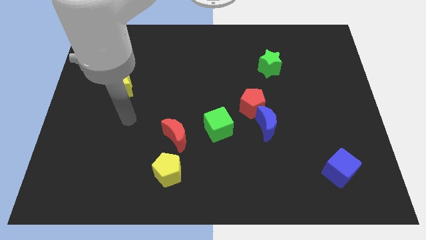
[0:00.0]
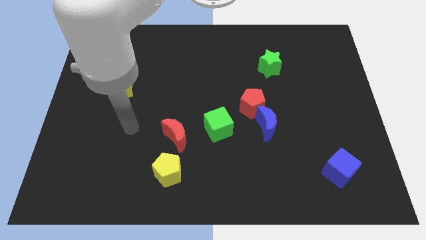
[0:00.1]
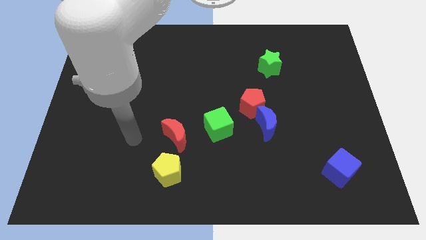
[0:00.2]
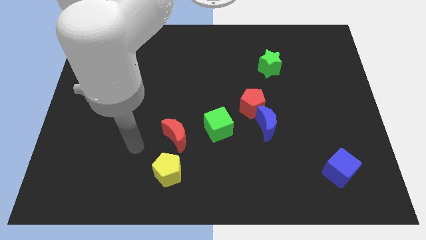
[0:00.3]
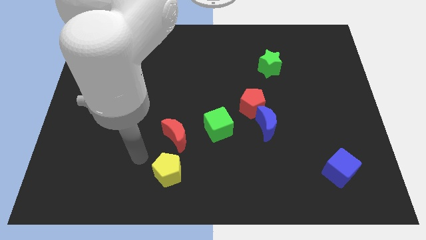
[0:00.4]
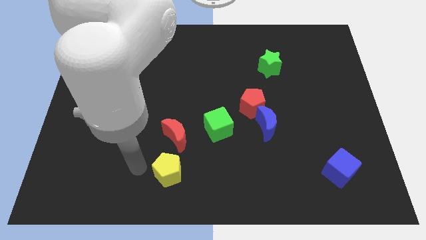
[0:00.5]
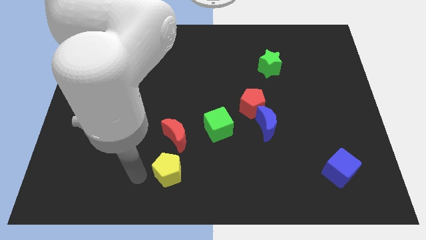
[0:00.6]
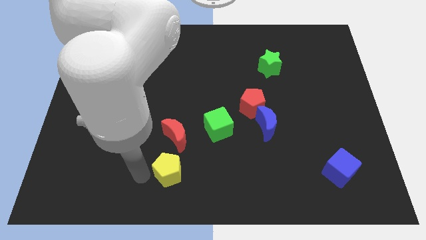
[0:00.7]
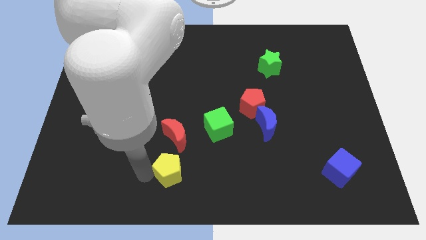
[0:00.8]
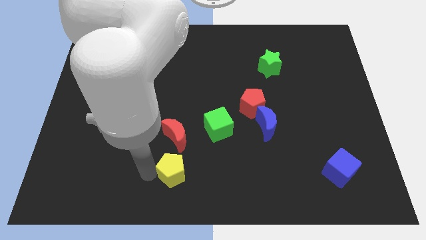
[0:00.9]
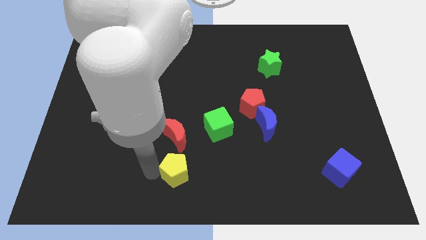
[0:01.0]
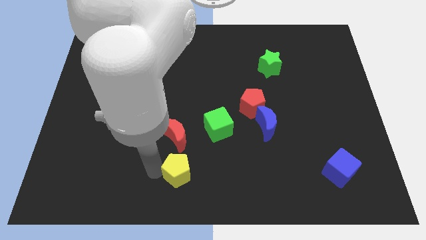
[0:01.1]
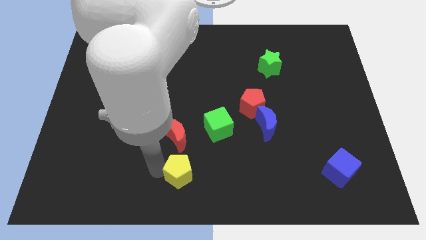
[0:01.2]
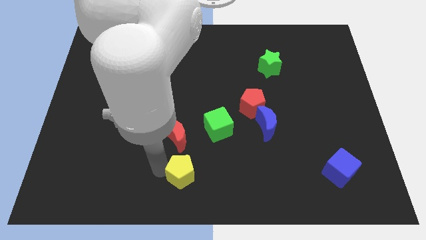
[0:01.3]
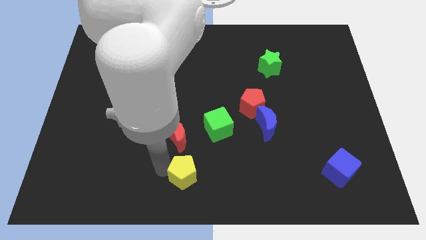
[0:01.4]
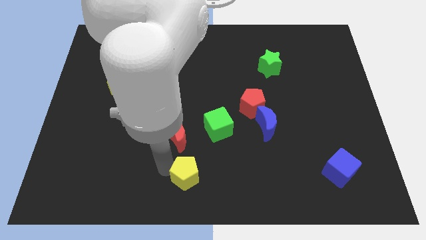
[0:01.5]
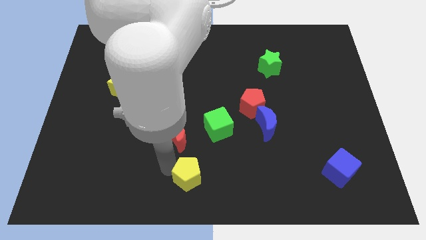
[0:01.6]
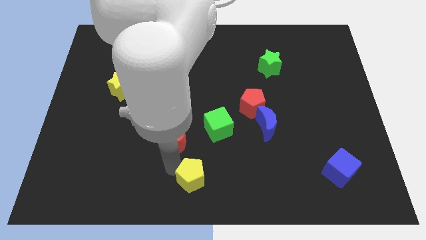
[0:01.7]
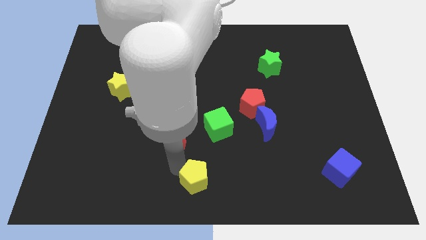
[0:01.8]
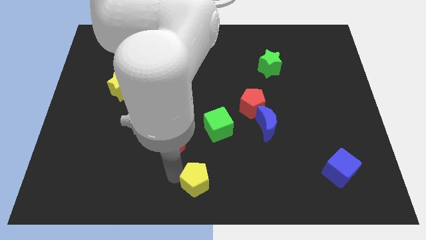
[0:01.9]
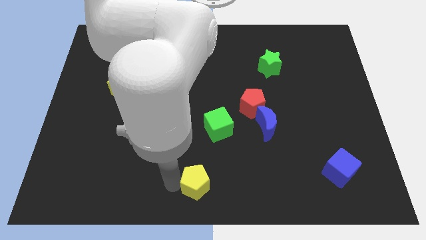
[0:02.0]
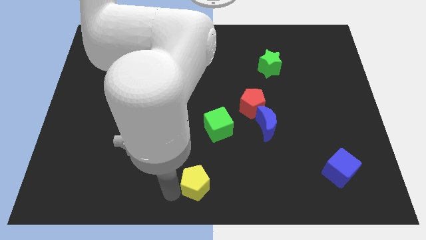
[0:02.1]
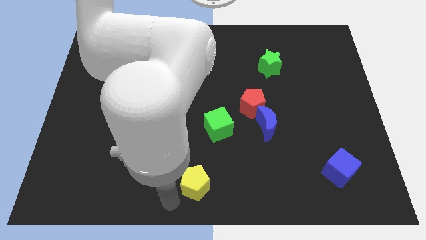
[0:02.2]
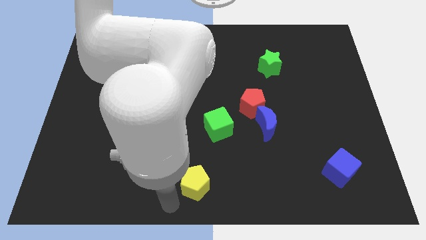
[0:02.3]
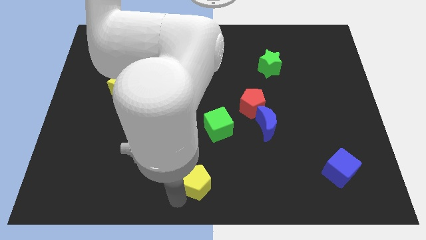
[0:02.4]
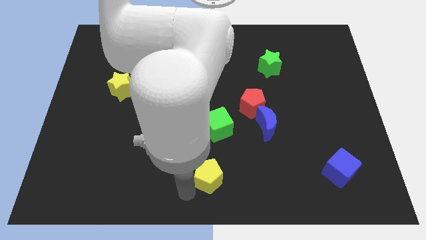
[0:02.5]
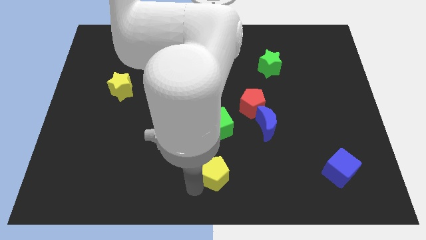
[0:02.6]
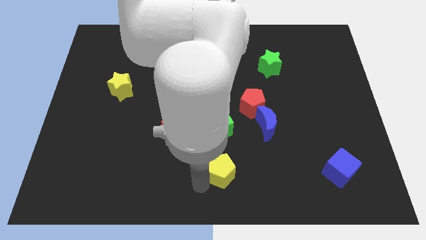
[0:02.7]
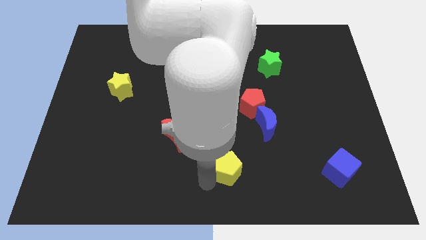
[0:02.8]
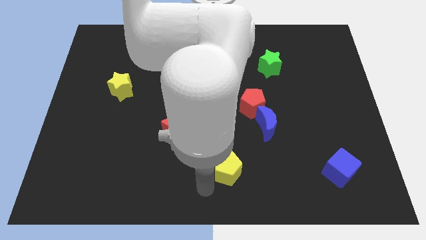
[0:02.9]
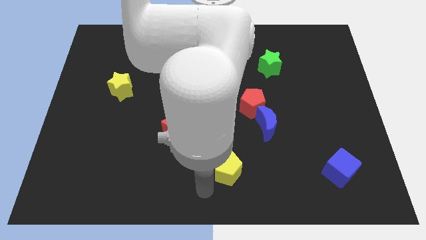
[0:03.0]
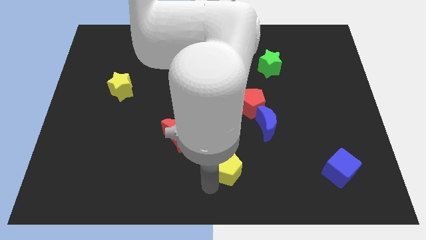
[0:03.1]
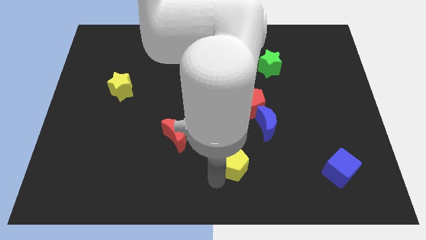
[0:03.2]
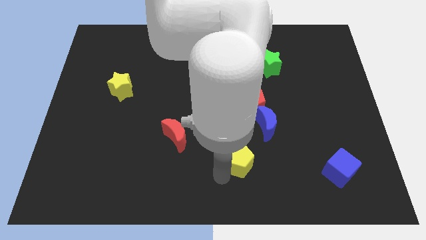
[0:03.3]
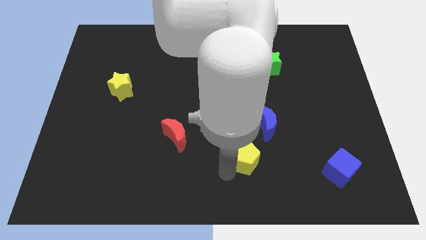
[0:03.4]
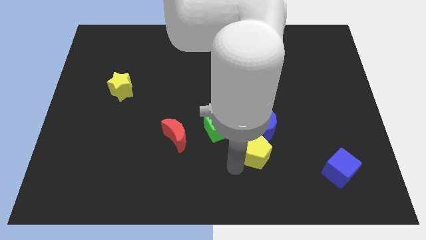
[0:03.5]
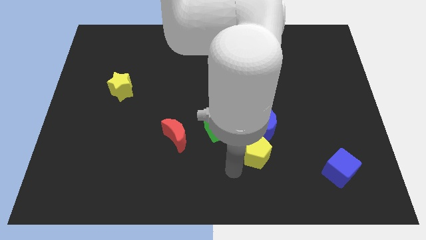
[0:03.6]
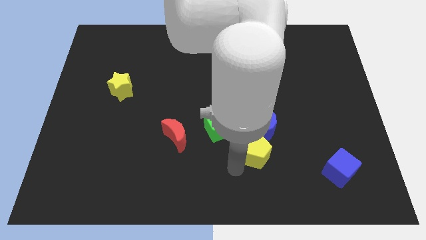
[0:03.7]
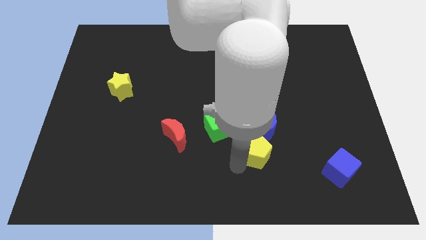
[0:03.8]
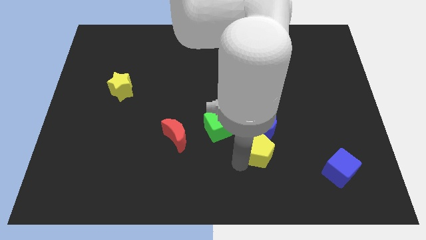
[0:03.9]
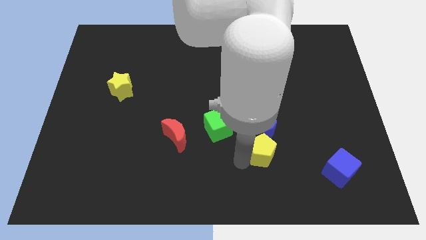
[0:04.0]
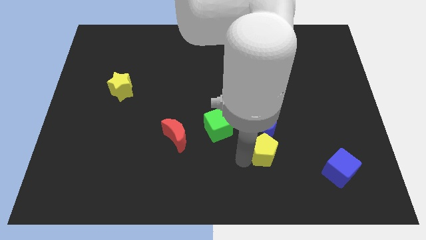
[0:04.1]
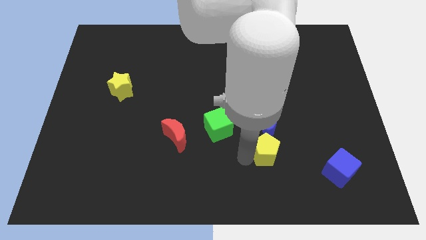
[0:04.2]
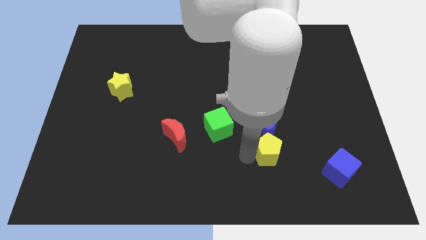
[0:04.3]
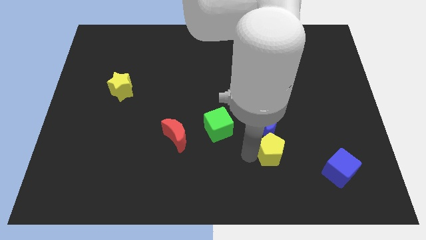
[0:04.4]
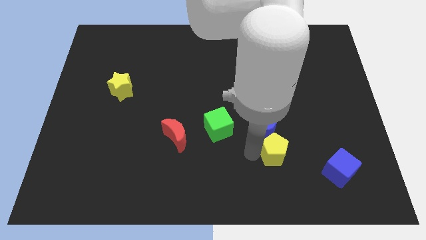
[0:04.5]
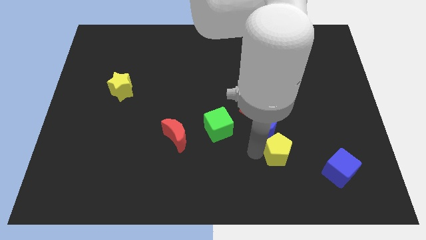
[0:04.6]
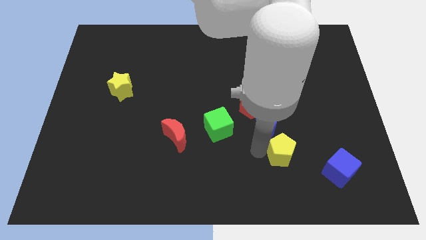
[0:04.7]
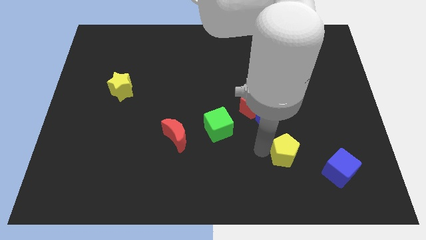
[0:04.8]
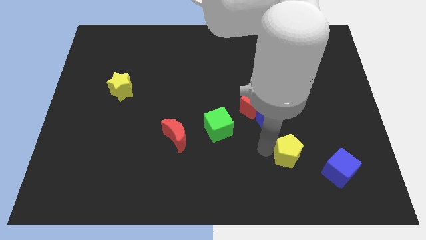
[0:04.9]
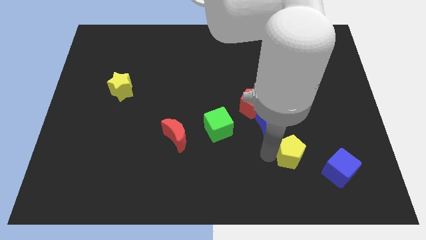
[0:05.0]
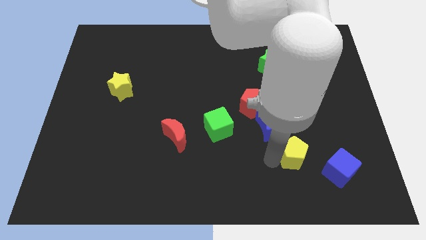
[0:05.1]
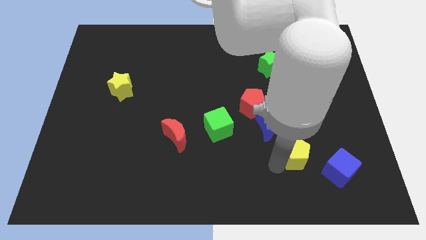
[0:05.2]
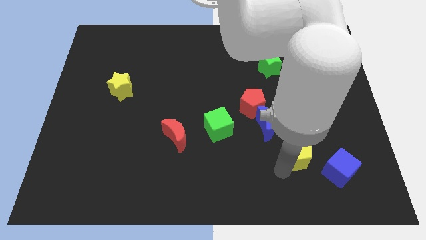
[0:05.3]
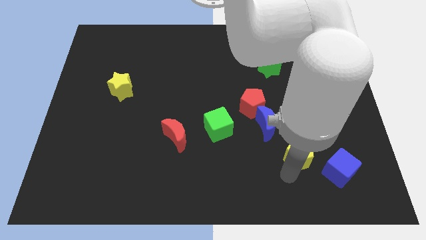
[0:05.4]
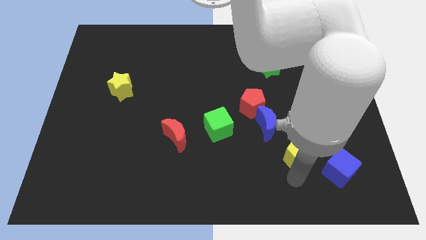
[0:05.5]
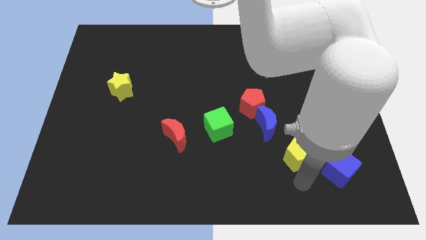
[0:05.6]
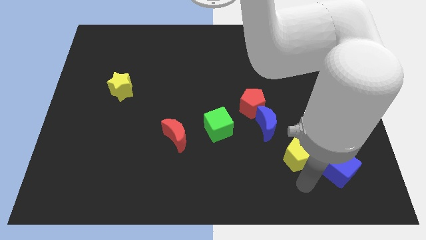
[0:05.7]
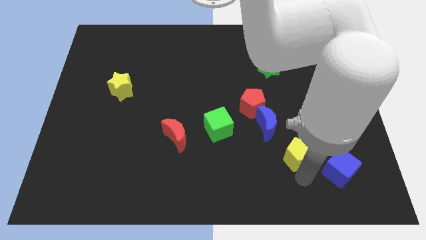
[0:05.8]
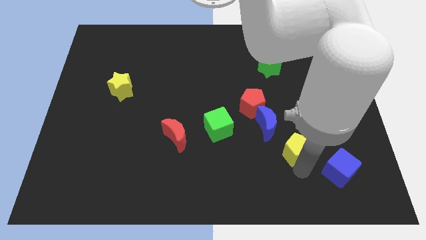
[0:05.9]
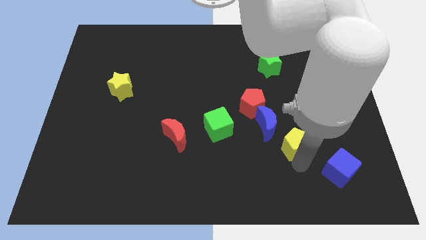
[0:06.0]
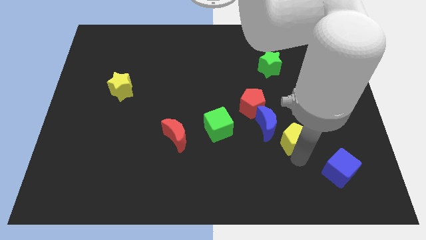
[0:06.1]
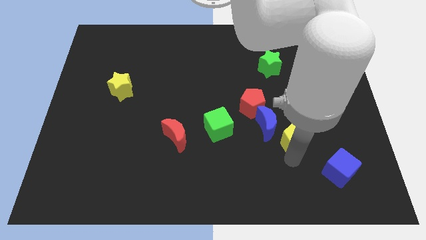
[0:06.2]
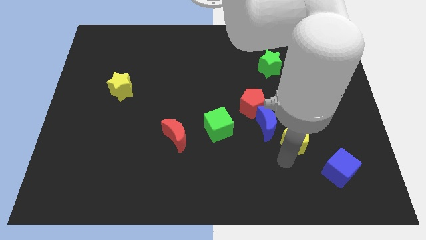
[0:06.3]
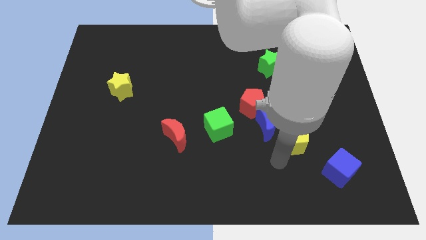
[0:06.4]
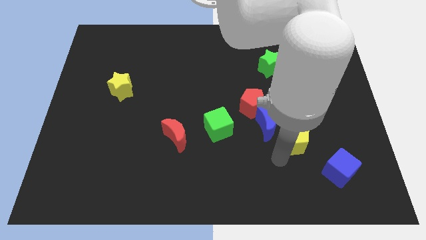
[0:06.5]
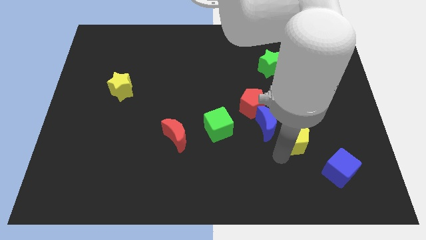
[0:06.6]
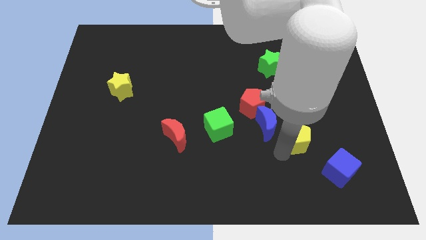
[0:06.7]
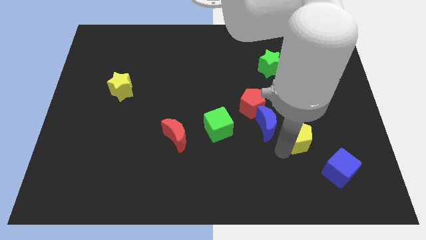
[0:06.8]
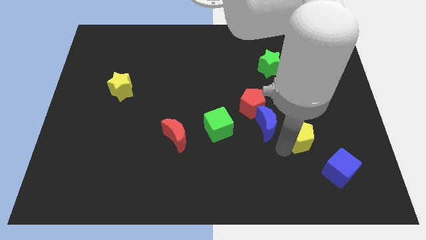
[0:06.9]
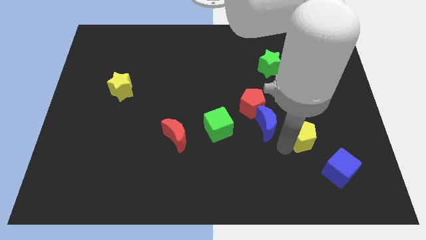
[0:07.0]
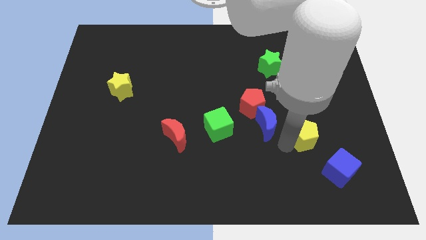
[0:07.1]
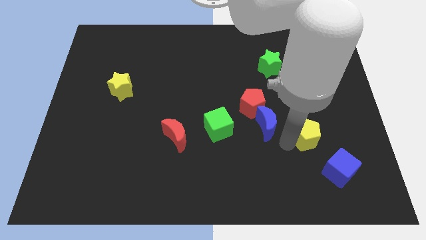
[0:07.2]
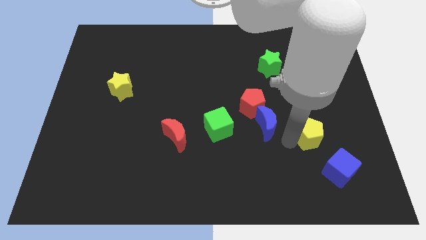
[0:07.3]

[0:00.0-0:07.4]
put the yellow pentagon above the blue cube

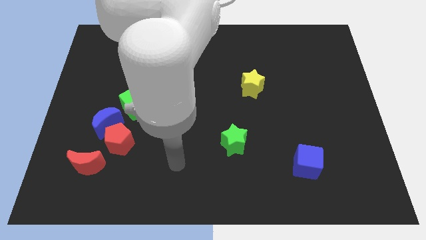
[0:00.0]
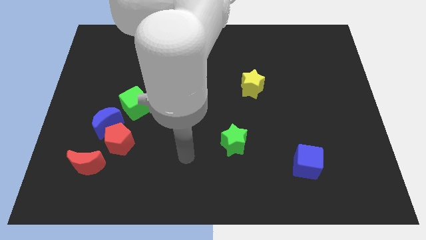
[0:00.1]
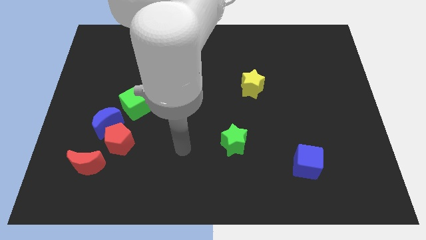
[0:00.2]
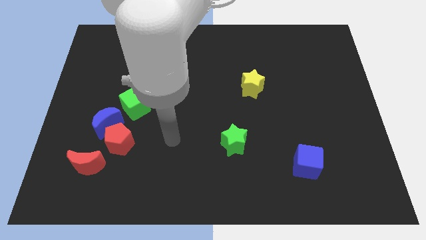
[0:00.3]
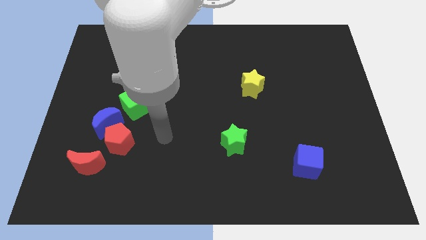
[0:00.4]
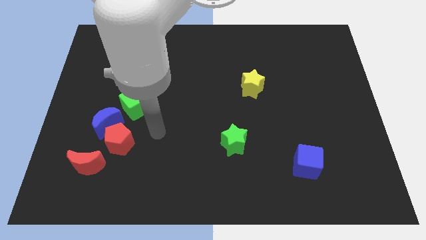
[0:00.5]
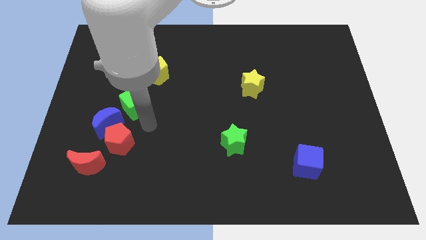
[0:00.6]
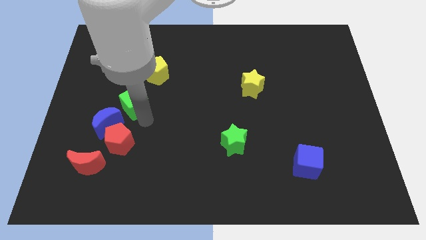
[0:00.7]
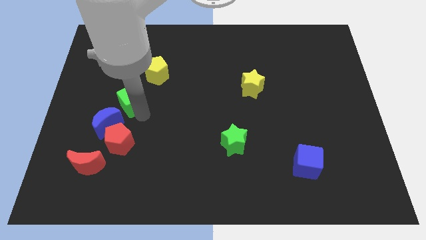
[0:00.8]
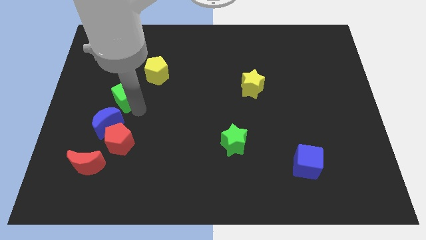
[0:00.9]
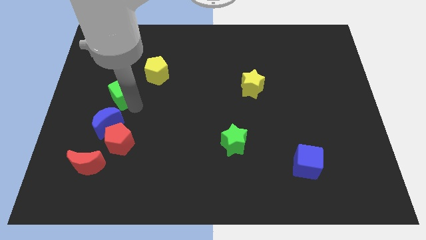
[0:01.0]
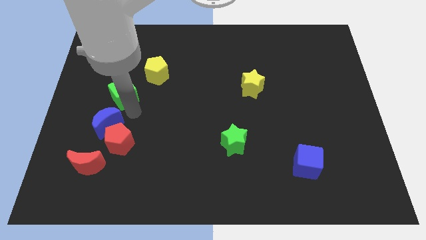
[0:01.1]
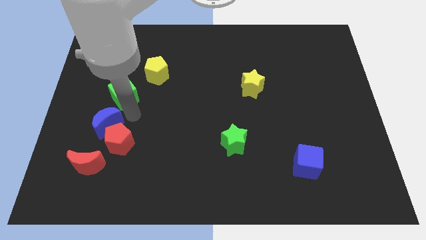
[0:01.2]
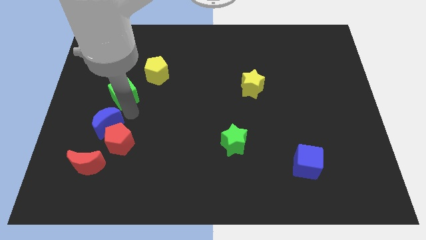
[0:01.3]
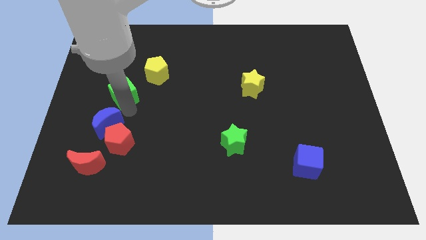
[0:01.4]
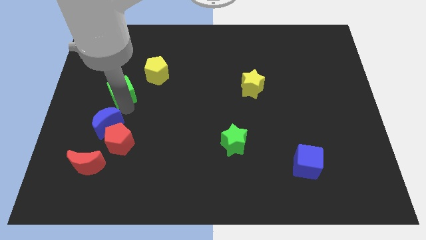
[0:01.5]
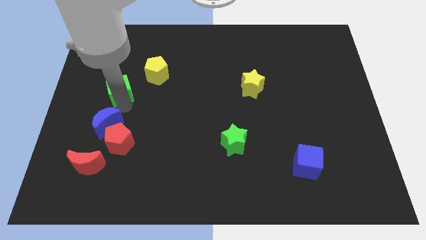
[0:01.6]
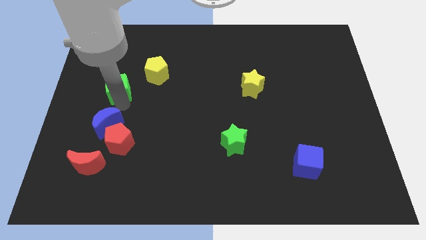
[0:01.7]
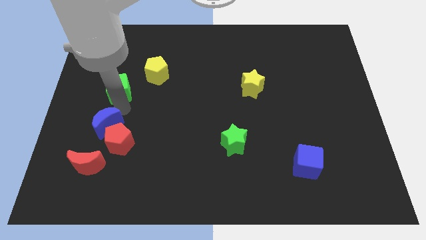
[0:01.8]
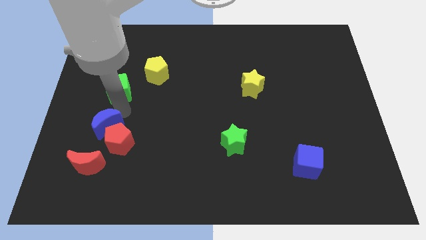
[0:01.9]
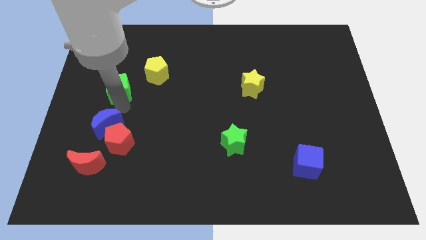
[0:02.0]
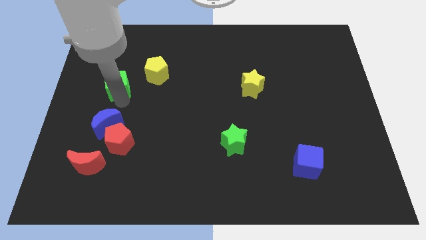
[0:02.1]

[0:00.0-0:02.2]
slide the green cube left of the yellow pentagon
